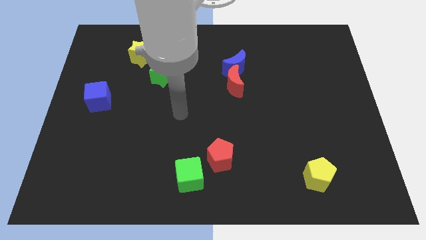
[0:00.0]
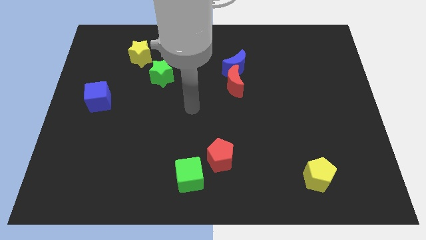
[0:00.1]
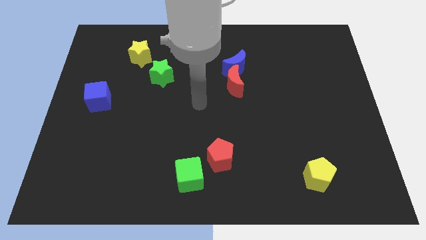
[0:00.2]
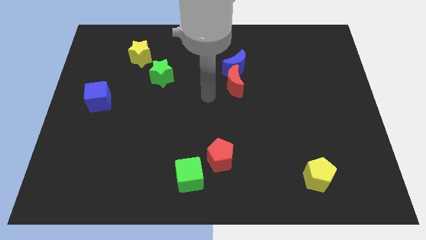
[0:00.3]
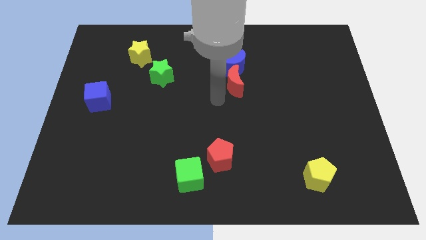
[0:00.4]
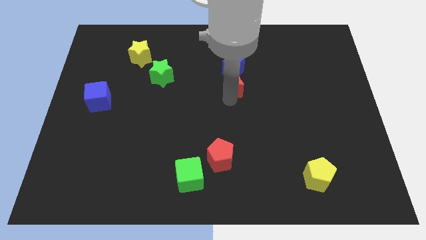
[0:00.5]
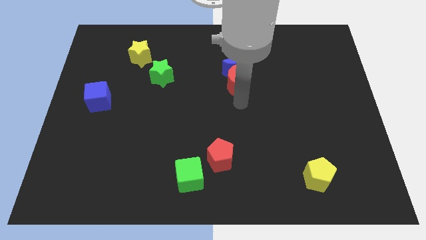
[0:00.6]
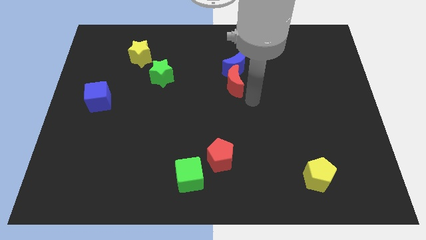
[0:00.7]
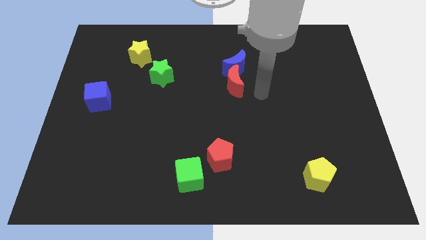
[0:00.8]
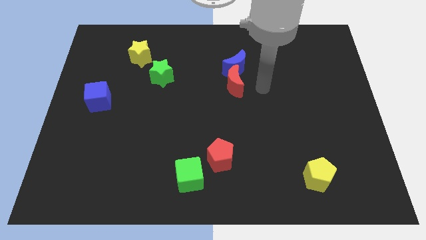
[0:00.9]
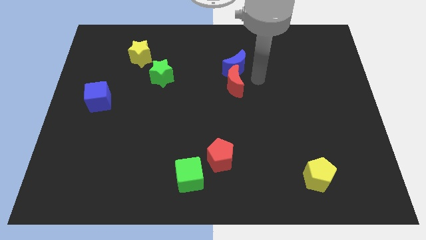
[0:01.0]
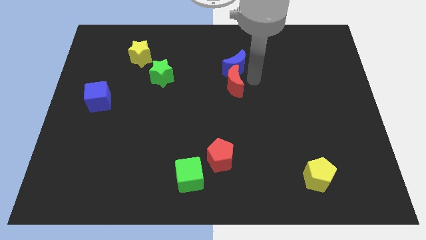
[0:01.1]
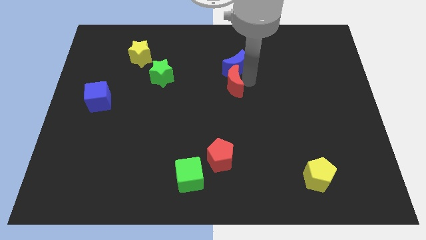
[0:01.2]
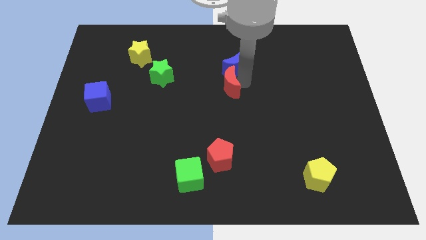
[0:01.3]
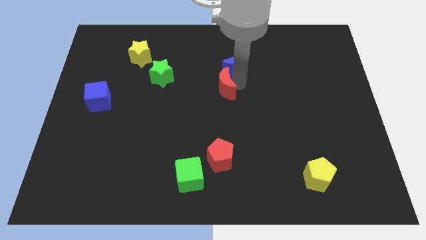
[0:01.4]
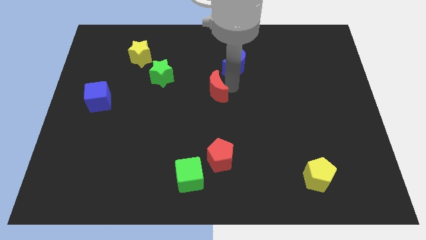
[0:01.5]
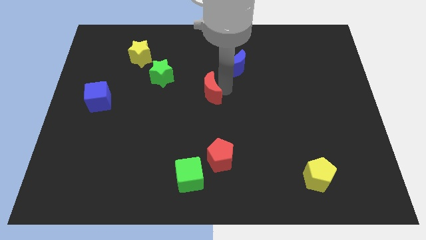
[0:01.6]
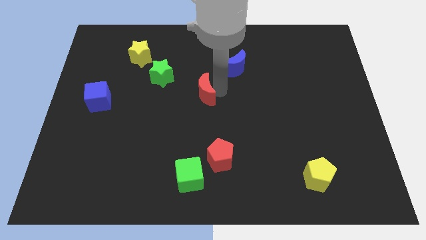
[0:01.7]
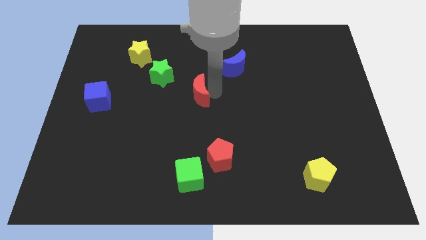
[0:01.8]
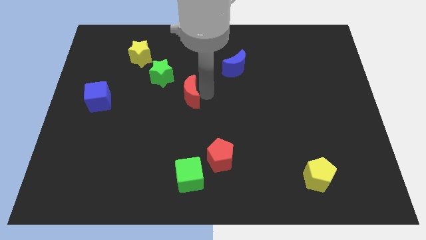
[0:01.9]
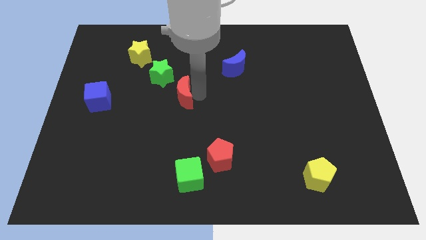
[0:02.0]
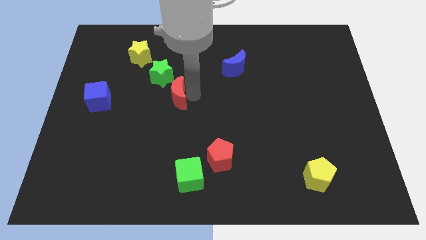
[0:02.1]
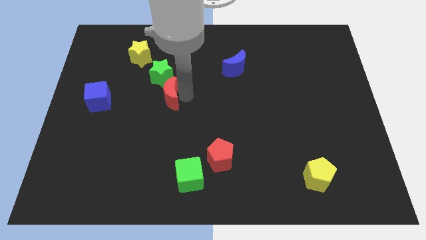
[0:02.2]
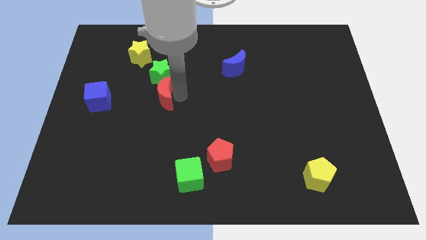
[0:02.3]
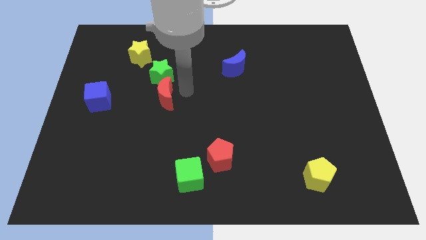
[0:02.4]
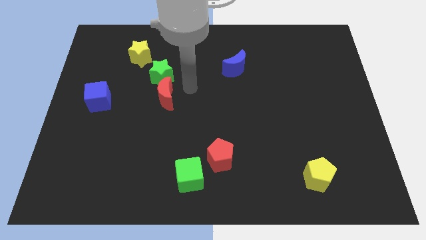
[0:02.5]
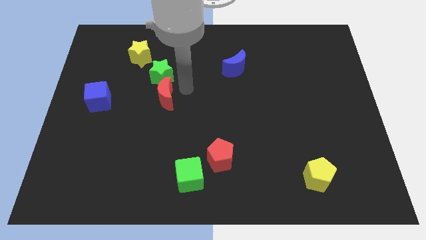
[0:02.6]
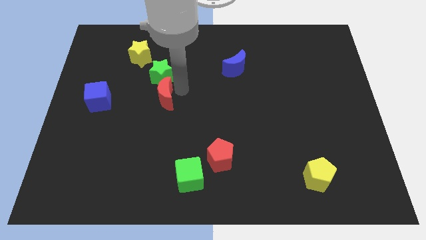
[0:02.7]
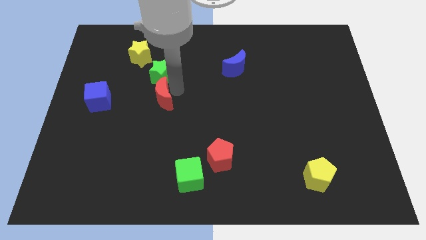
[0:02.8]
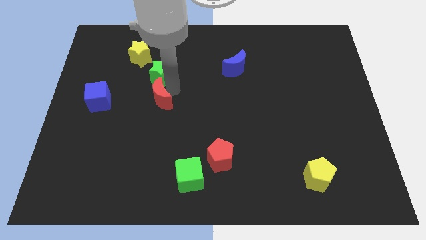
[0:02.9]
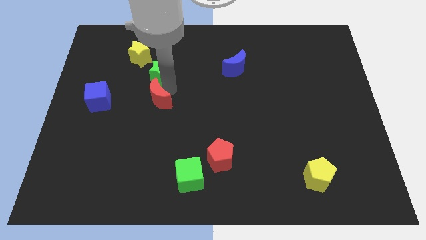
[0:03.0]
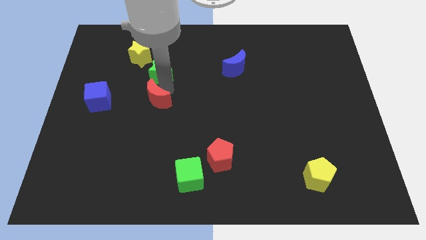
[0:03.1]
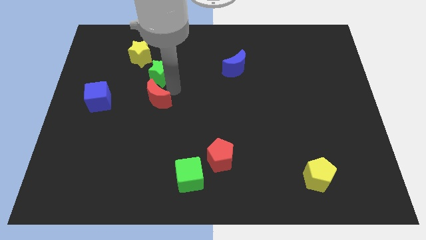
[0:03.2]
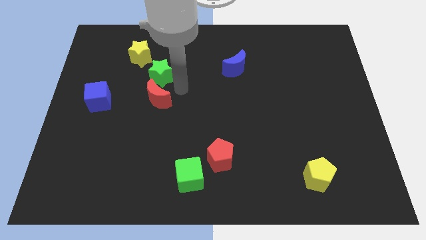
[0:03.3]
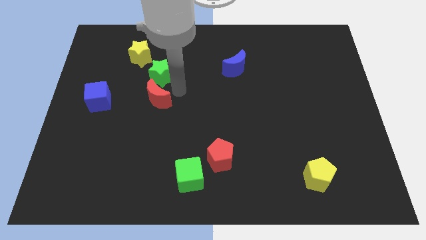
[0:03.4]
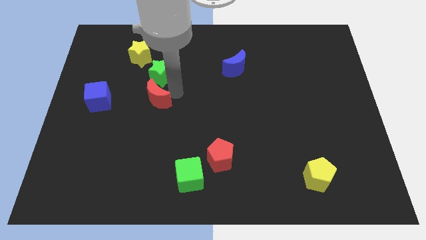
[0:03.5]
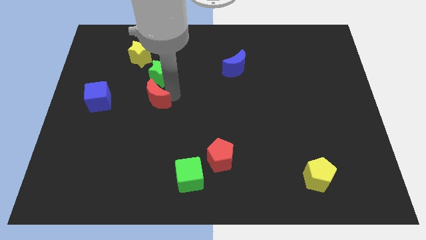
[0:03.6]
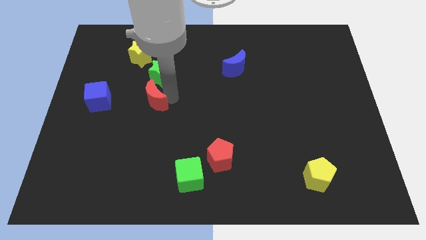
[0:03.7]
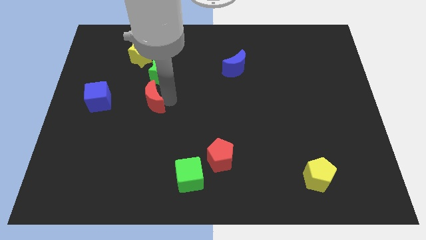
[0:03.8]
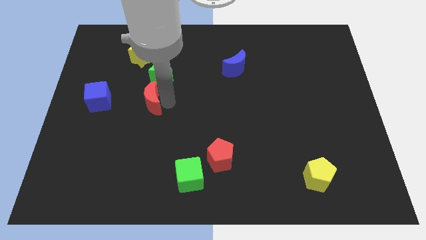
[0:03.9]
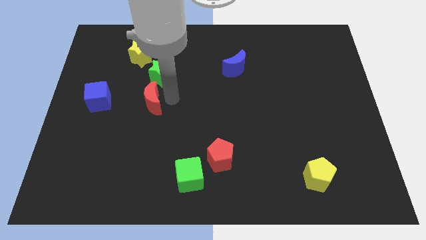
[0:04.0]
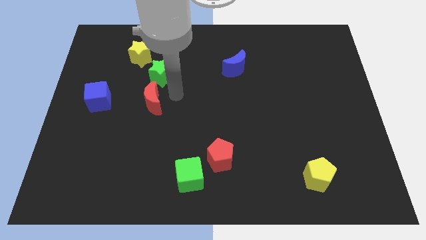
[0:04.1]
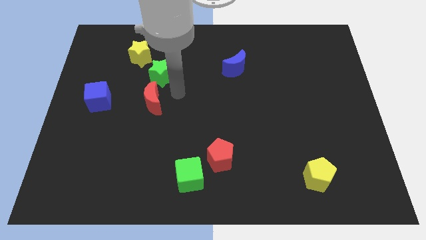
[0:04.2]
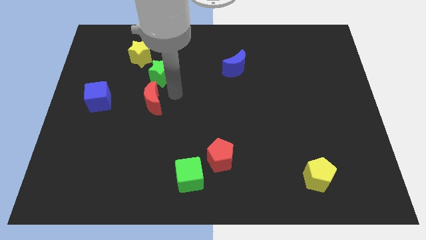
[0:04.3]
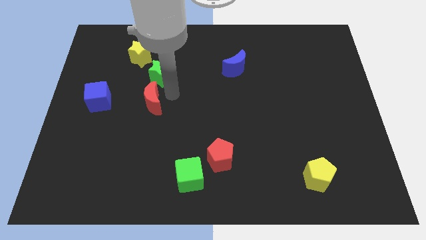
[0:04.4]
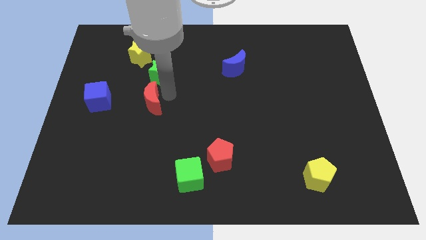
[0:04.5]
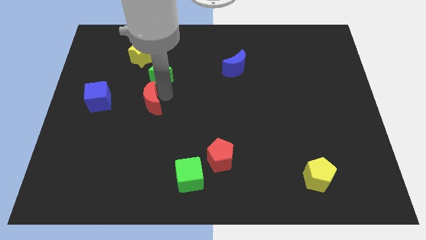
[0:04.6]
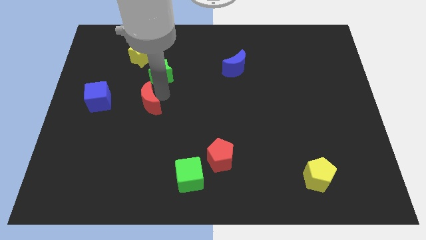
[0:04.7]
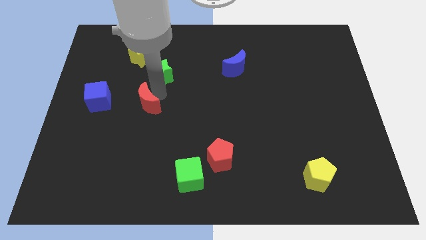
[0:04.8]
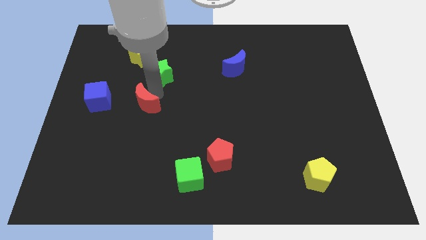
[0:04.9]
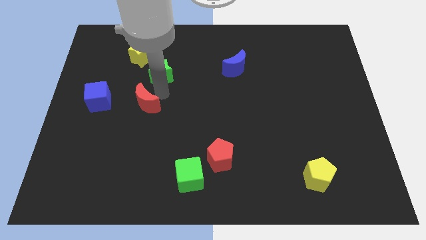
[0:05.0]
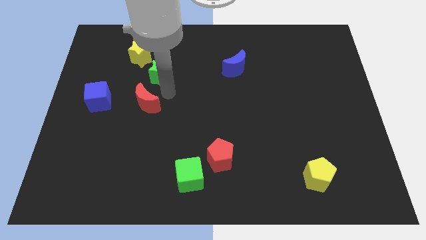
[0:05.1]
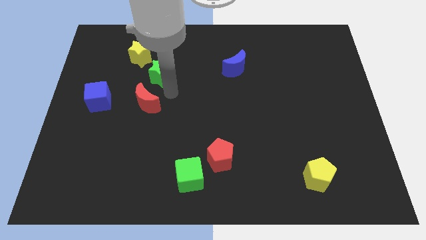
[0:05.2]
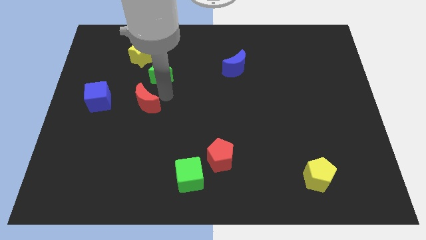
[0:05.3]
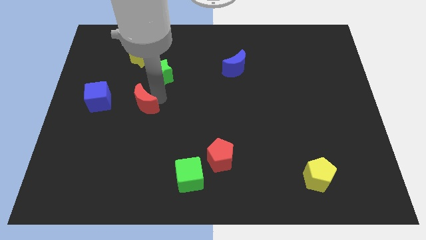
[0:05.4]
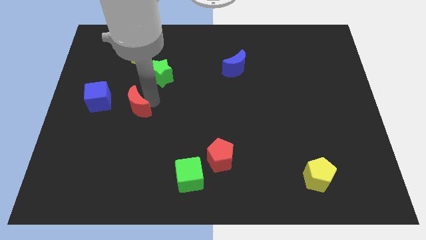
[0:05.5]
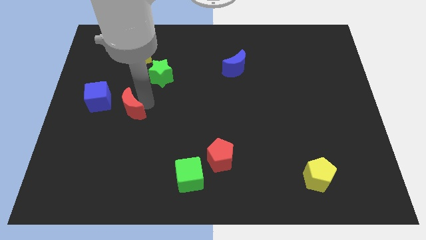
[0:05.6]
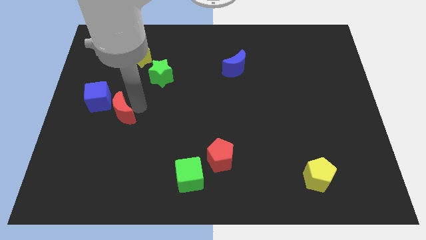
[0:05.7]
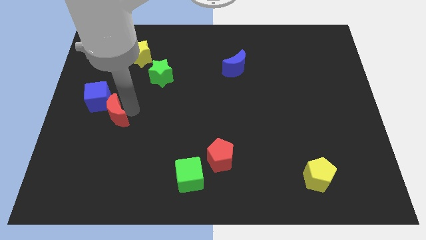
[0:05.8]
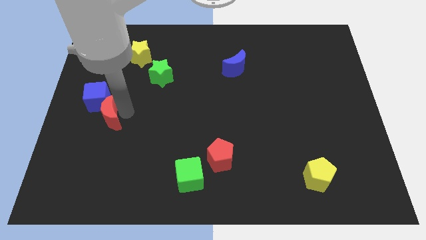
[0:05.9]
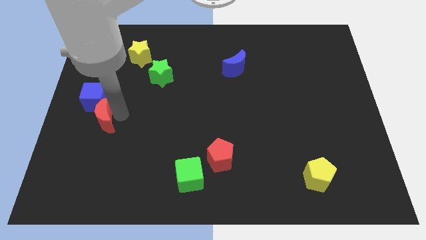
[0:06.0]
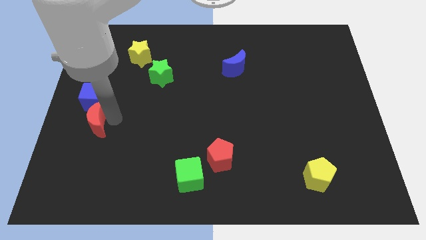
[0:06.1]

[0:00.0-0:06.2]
push the red moon to the center left

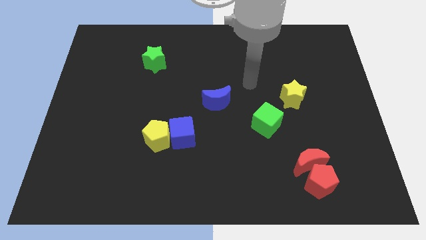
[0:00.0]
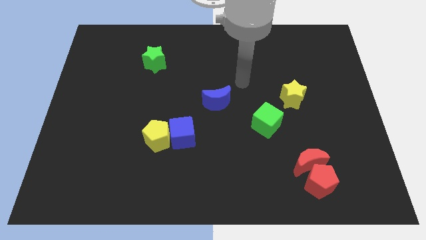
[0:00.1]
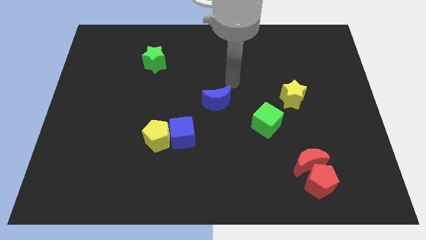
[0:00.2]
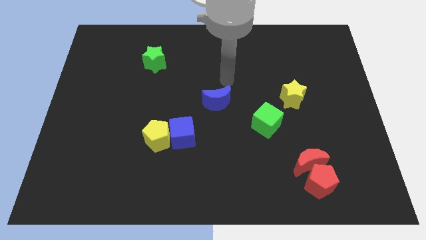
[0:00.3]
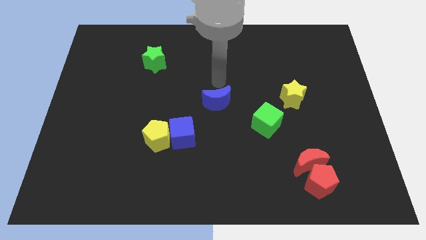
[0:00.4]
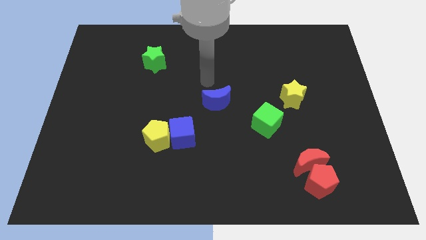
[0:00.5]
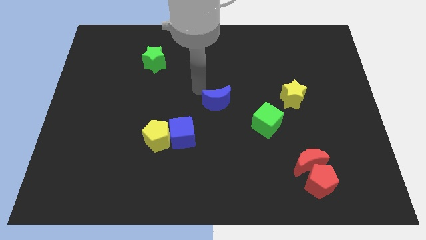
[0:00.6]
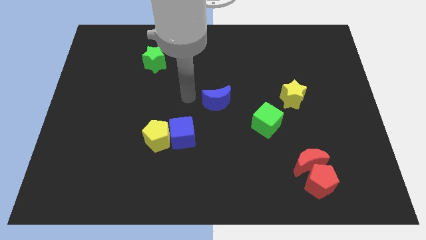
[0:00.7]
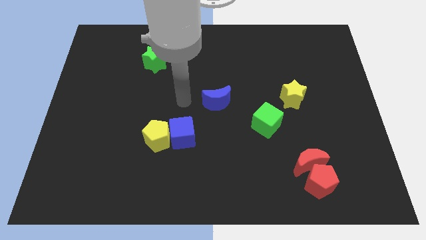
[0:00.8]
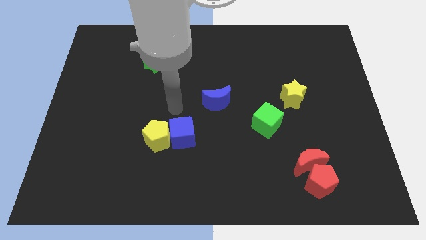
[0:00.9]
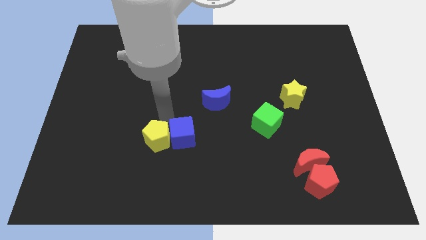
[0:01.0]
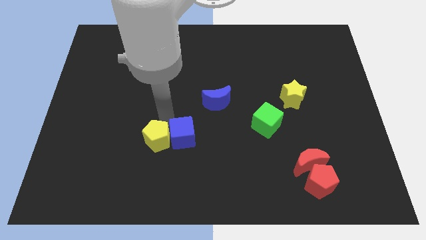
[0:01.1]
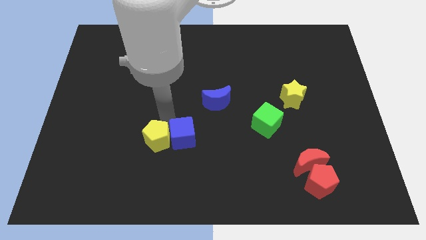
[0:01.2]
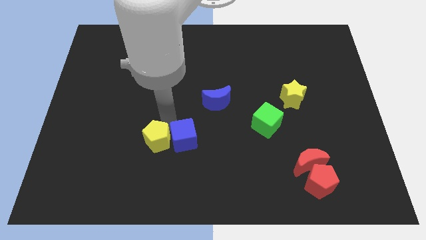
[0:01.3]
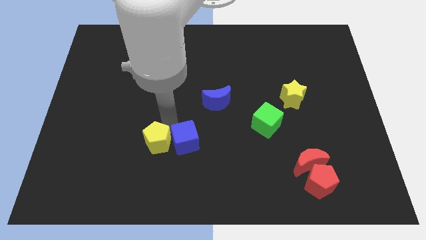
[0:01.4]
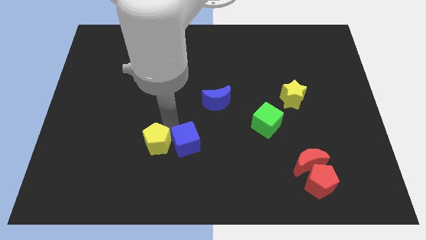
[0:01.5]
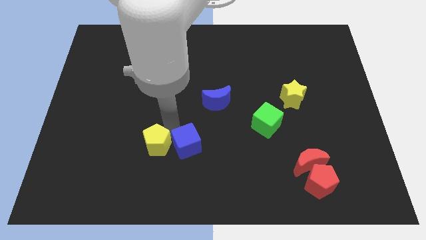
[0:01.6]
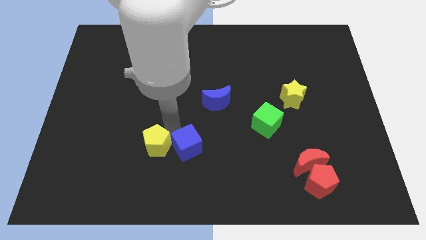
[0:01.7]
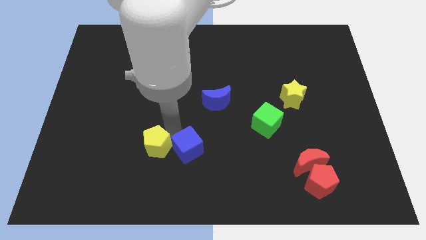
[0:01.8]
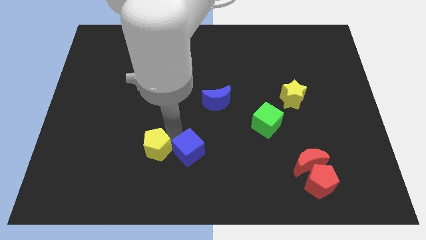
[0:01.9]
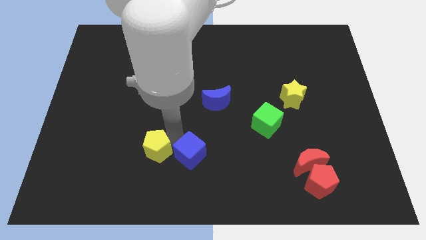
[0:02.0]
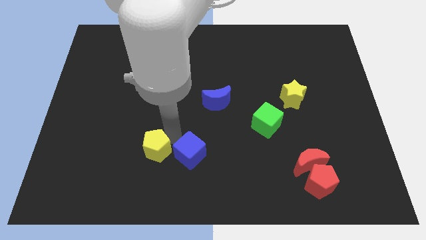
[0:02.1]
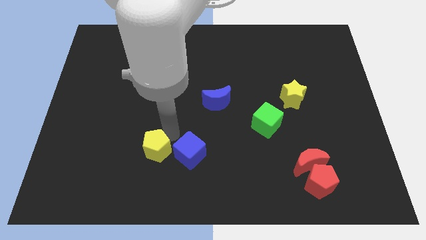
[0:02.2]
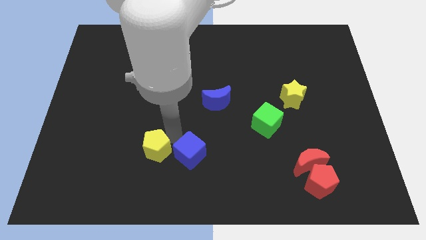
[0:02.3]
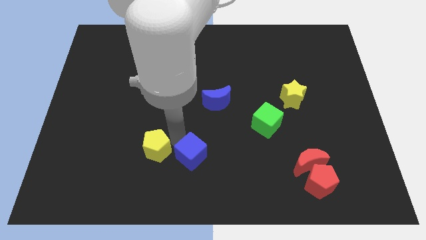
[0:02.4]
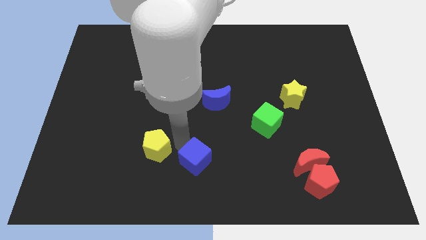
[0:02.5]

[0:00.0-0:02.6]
move the blue cube to the bottom side
